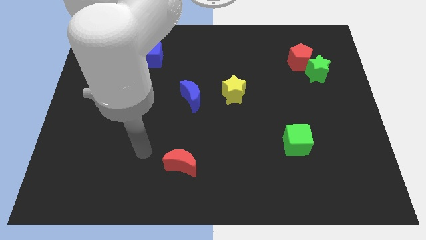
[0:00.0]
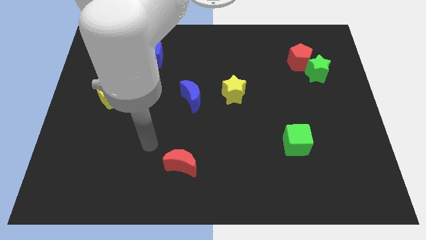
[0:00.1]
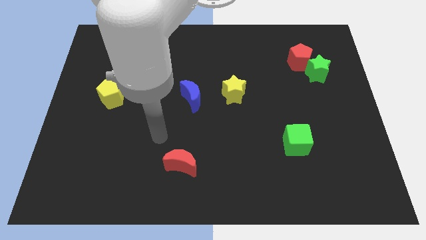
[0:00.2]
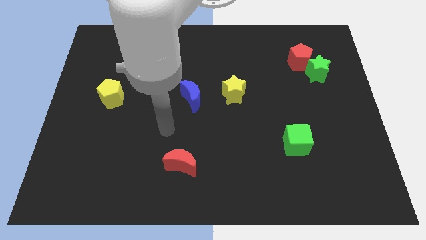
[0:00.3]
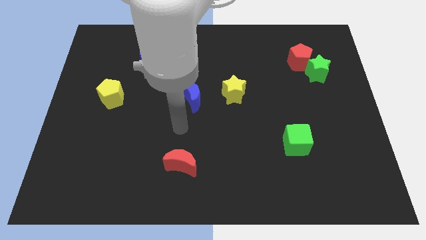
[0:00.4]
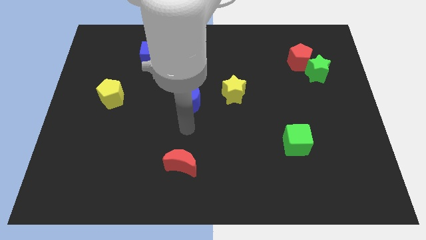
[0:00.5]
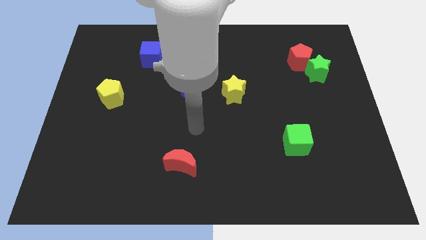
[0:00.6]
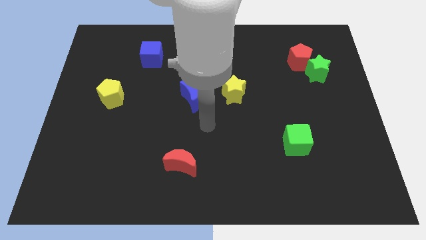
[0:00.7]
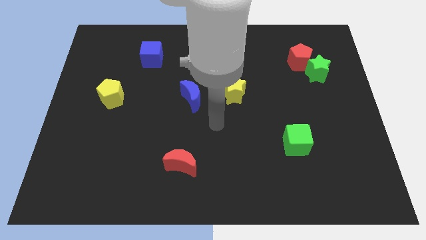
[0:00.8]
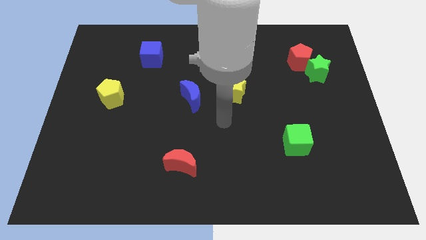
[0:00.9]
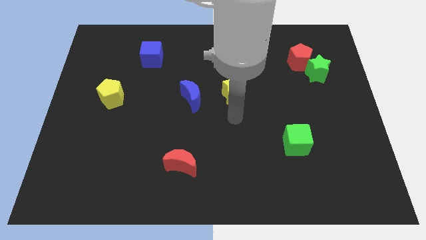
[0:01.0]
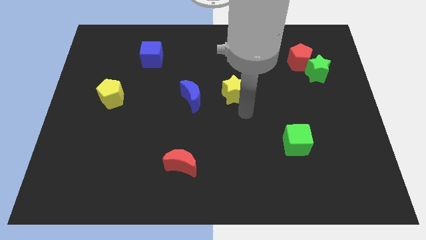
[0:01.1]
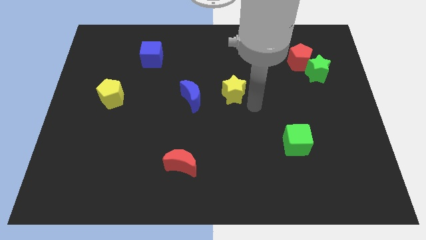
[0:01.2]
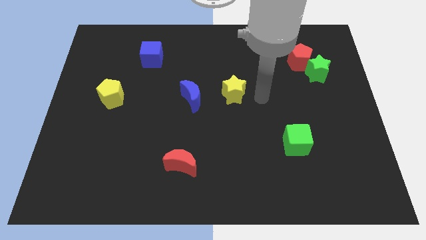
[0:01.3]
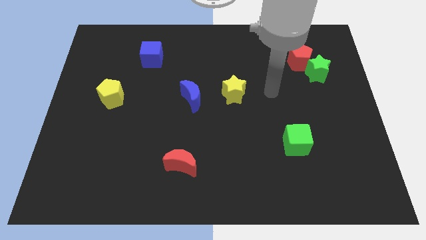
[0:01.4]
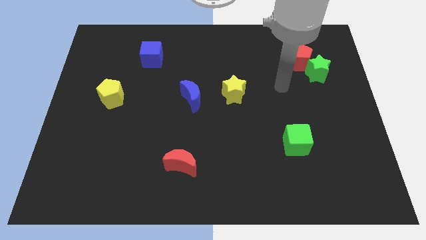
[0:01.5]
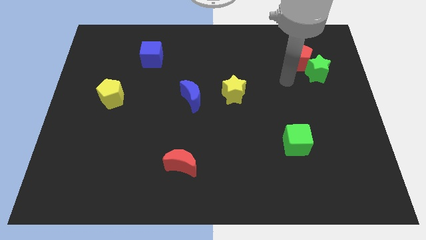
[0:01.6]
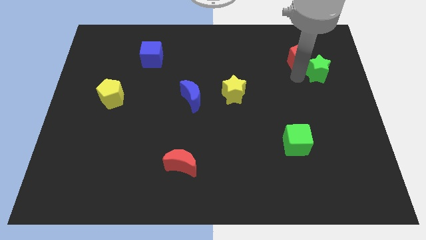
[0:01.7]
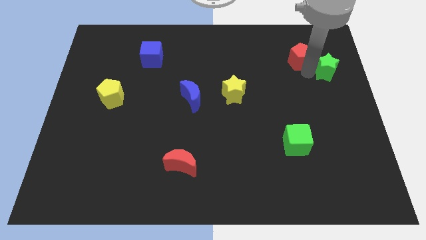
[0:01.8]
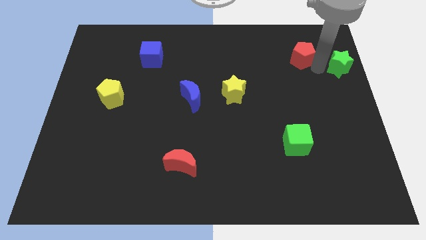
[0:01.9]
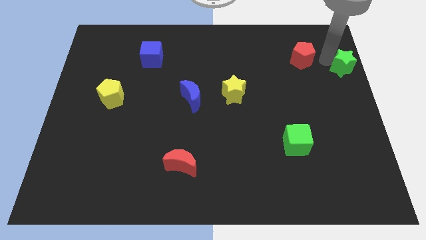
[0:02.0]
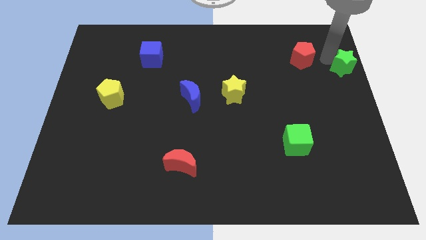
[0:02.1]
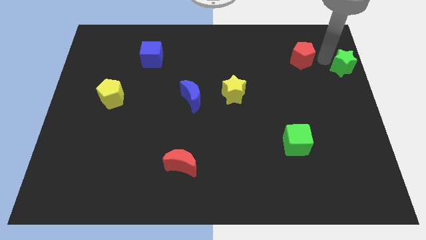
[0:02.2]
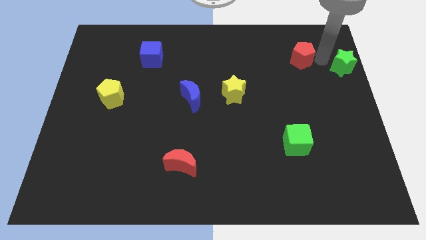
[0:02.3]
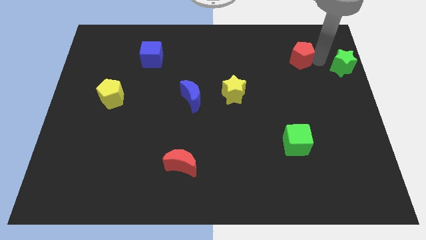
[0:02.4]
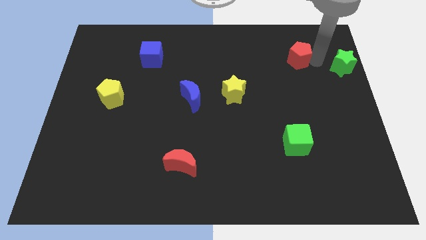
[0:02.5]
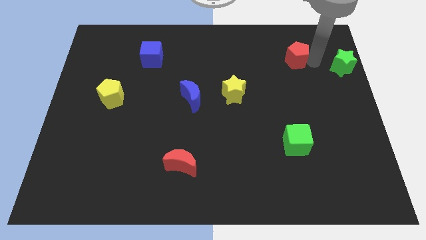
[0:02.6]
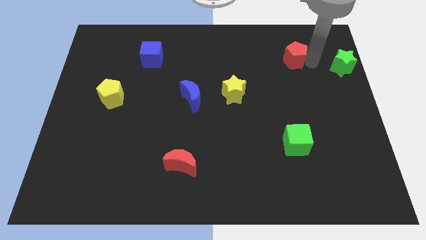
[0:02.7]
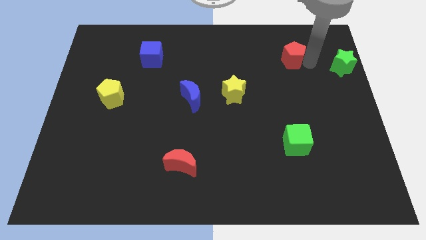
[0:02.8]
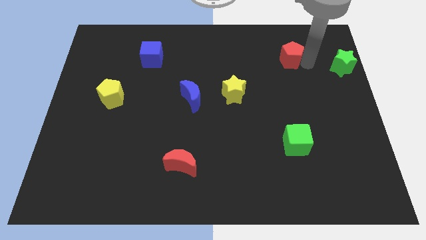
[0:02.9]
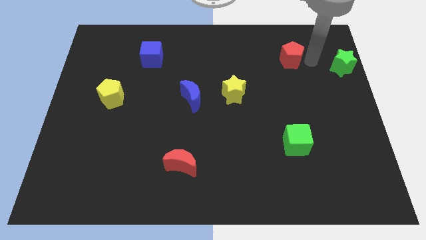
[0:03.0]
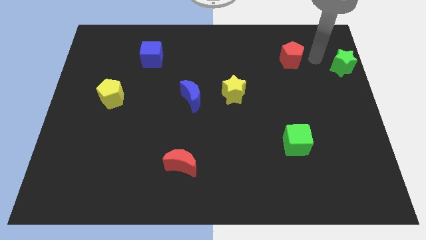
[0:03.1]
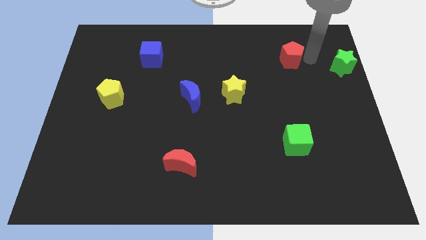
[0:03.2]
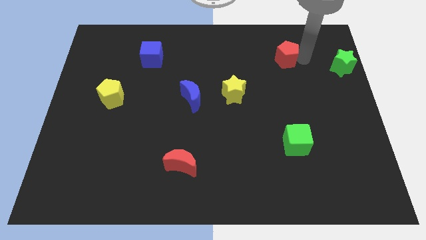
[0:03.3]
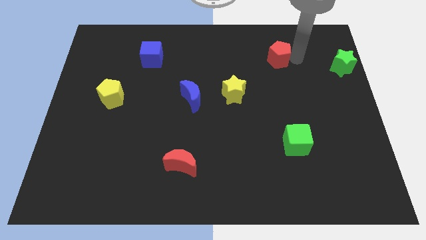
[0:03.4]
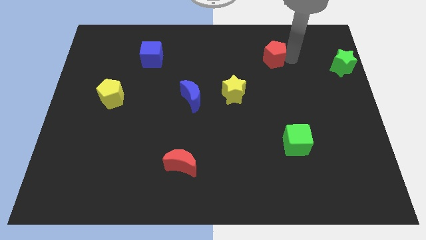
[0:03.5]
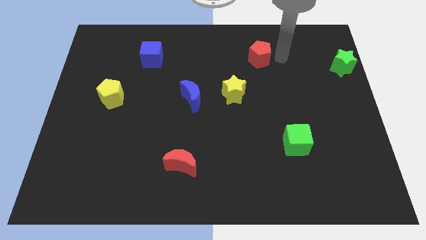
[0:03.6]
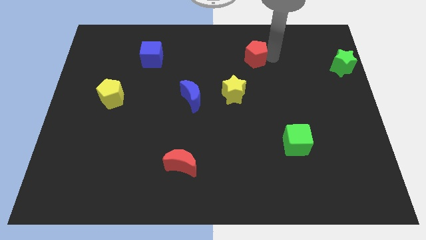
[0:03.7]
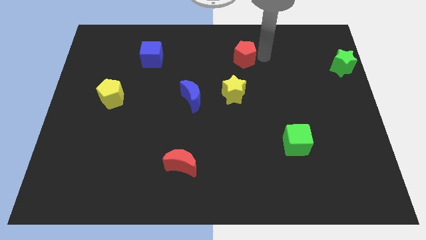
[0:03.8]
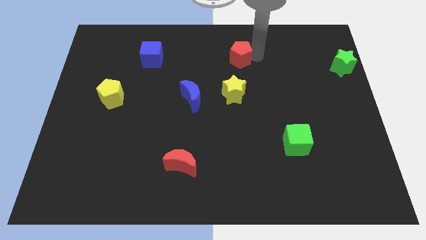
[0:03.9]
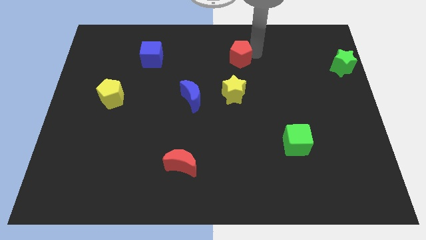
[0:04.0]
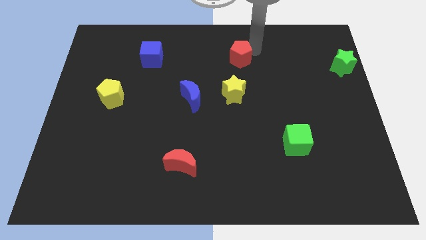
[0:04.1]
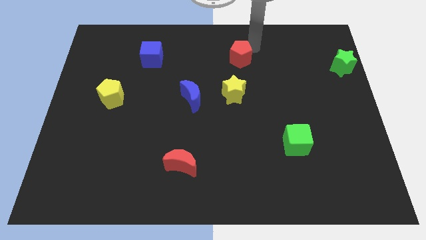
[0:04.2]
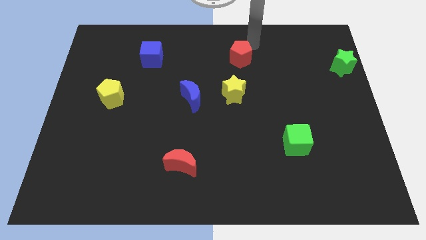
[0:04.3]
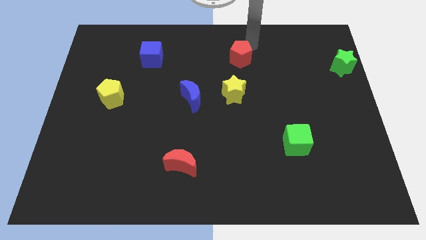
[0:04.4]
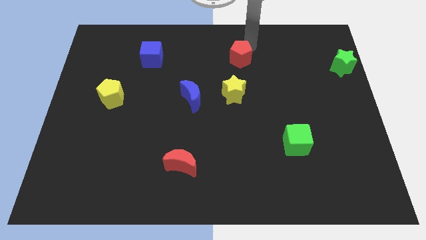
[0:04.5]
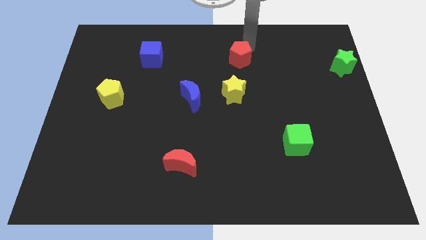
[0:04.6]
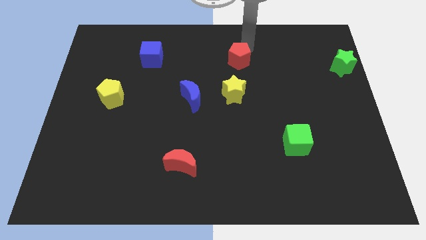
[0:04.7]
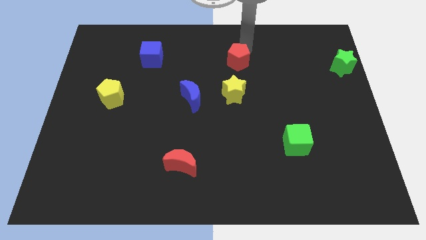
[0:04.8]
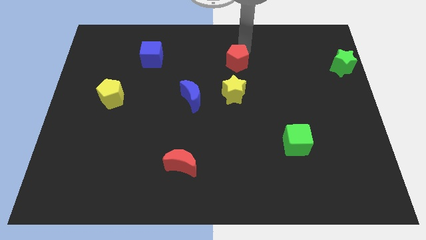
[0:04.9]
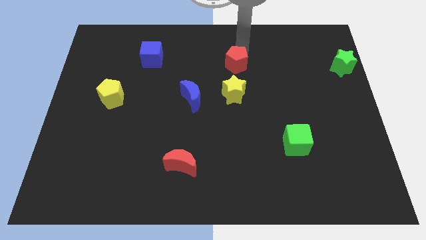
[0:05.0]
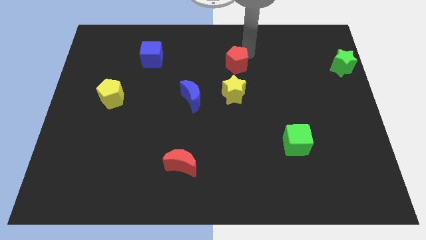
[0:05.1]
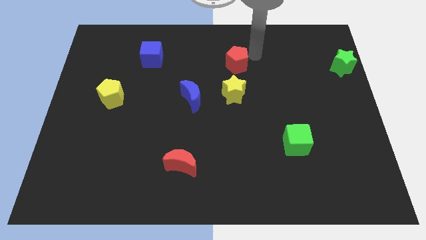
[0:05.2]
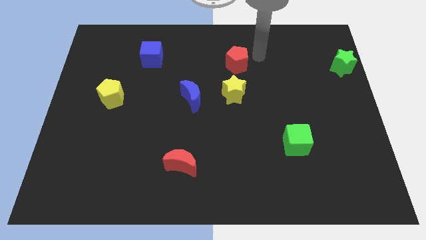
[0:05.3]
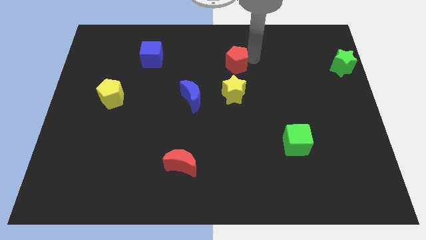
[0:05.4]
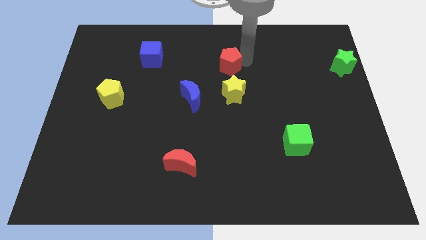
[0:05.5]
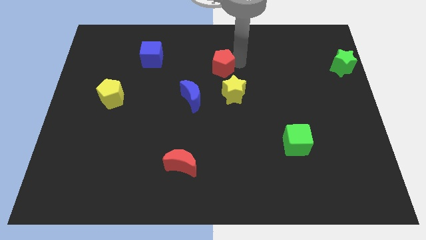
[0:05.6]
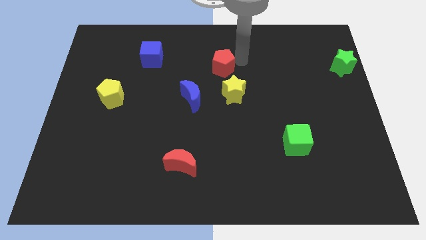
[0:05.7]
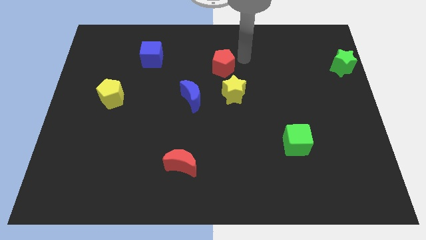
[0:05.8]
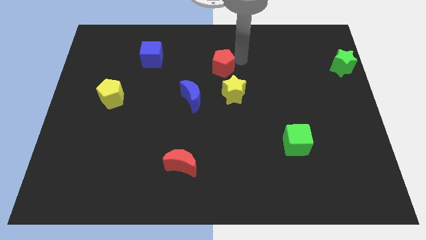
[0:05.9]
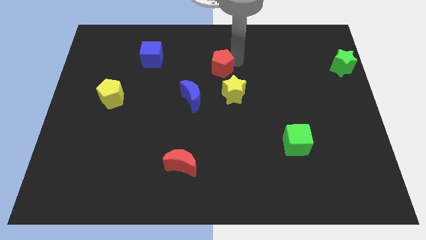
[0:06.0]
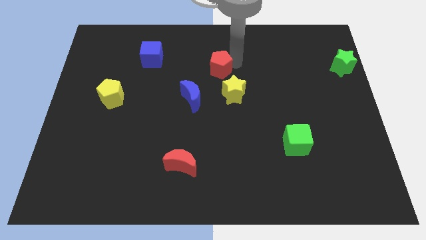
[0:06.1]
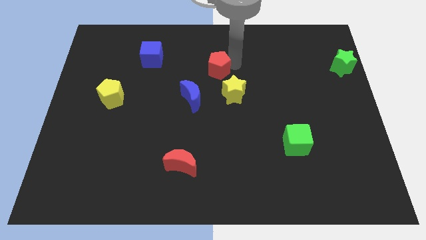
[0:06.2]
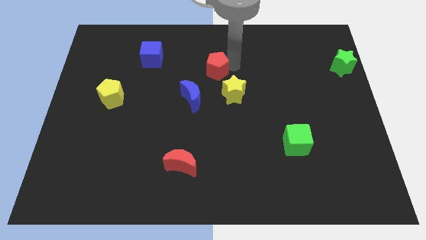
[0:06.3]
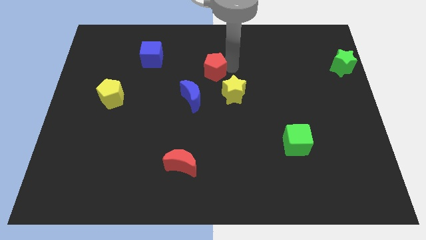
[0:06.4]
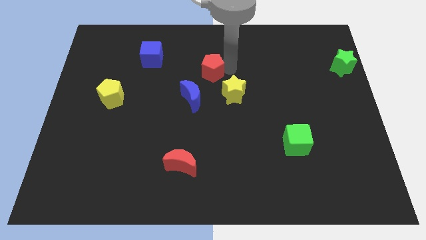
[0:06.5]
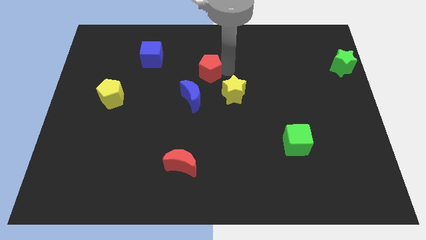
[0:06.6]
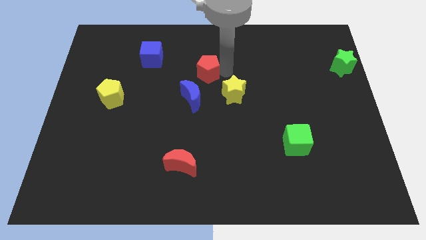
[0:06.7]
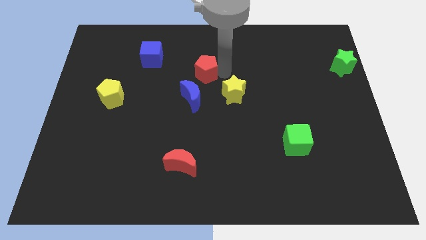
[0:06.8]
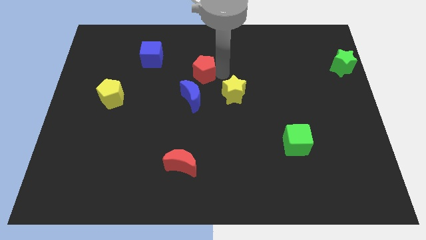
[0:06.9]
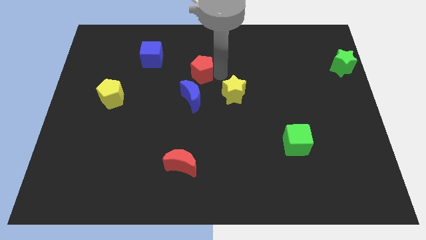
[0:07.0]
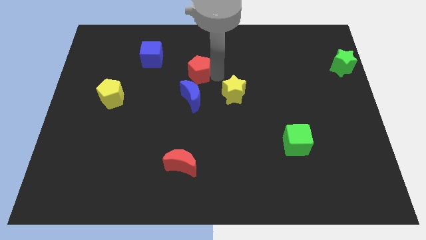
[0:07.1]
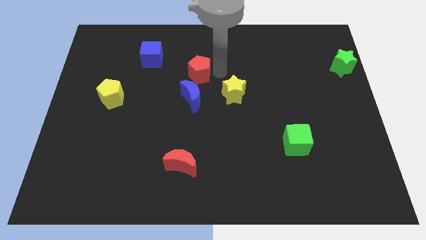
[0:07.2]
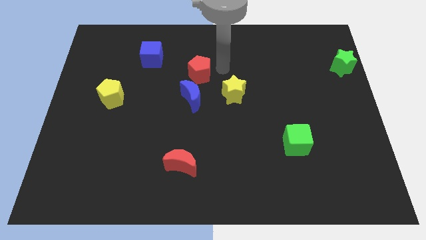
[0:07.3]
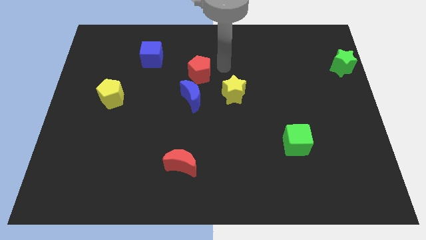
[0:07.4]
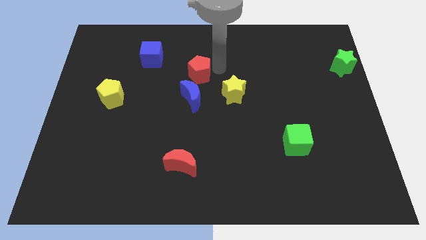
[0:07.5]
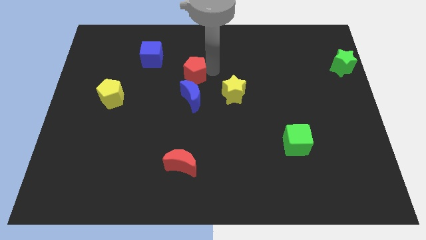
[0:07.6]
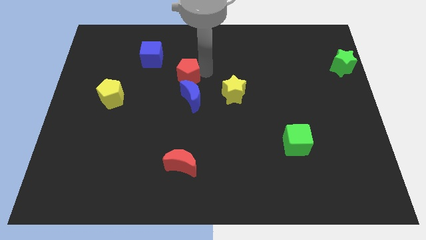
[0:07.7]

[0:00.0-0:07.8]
slide the red pentagon to the top left side of the blue moon
